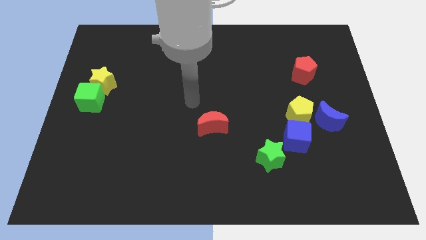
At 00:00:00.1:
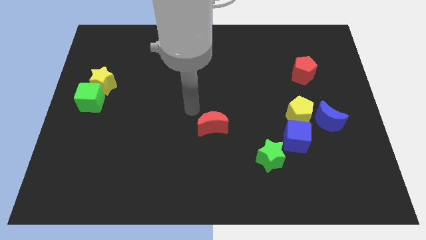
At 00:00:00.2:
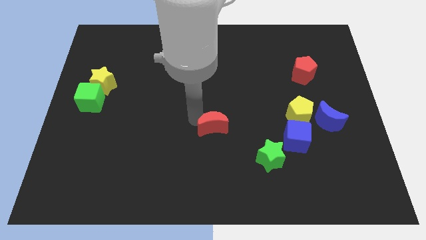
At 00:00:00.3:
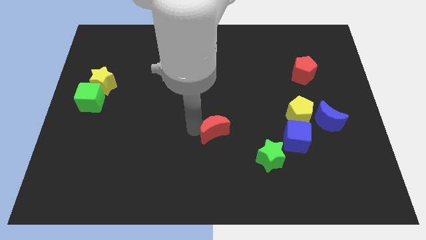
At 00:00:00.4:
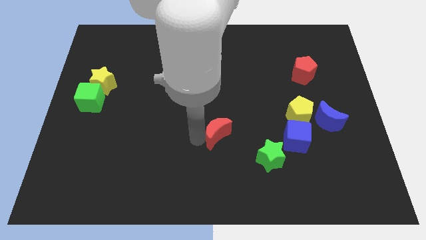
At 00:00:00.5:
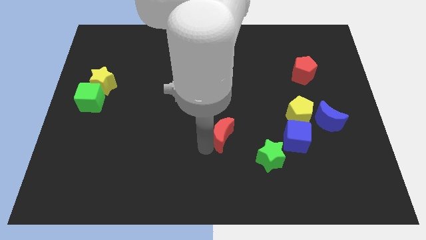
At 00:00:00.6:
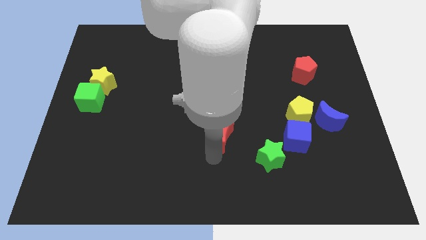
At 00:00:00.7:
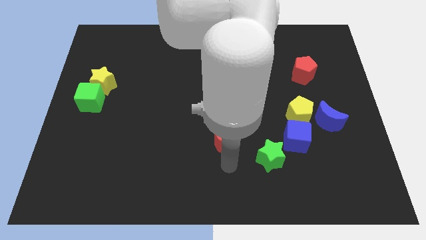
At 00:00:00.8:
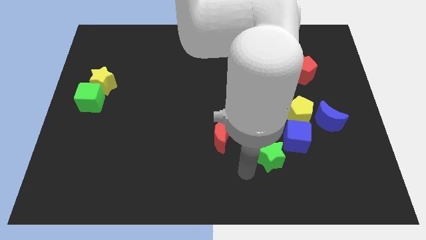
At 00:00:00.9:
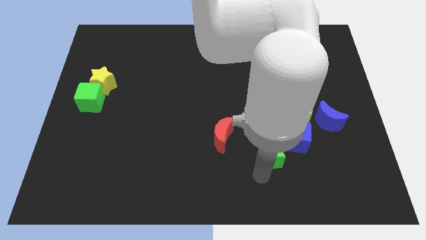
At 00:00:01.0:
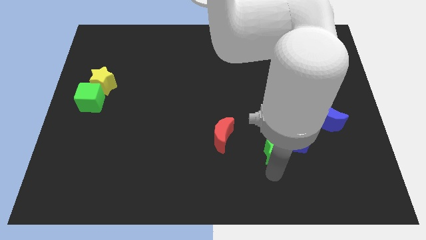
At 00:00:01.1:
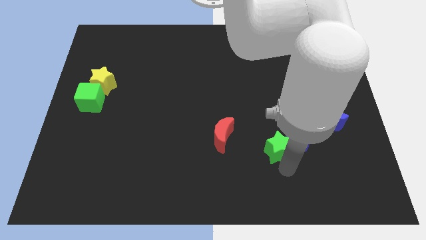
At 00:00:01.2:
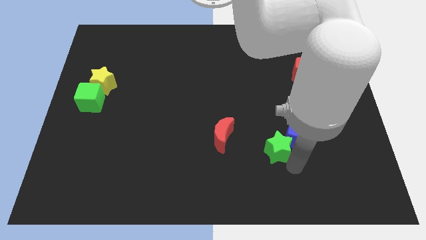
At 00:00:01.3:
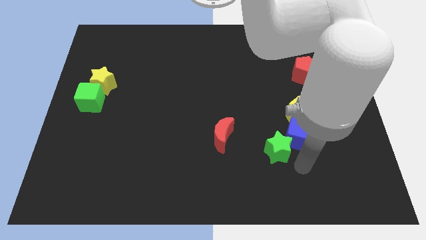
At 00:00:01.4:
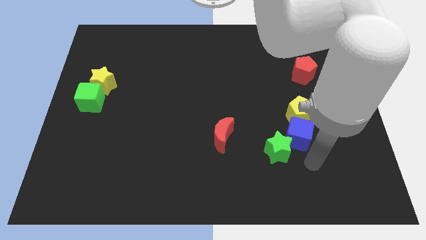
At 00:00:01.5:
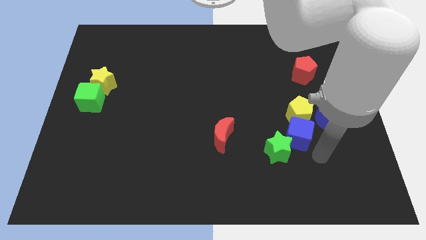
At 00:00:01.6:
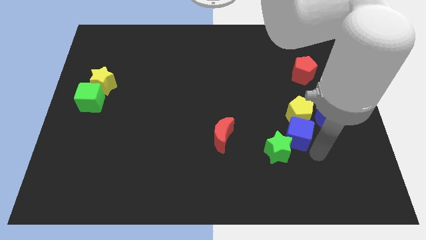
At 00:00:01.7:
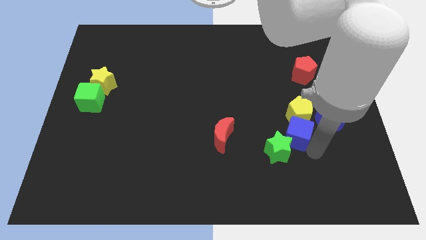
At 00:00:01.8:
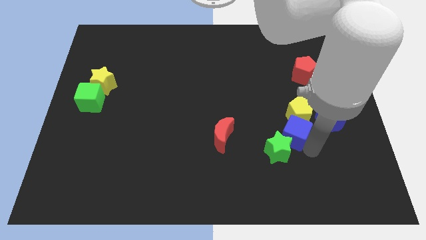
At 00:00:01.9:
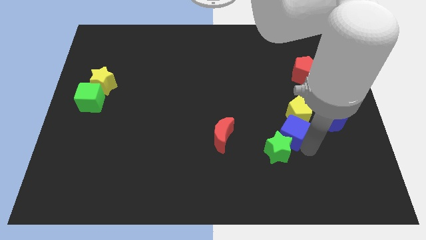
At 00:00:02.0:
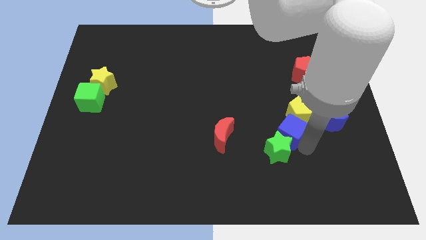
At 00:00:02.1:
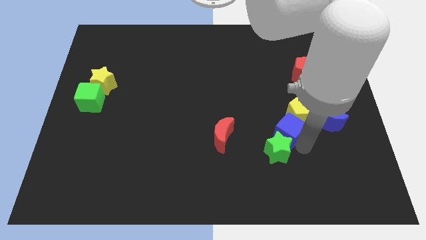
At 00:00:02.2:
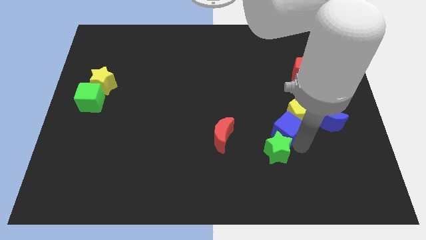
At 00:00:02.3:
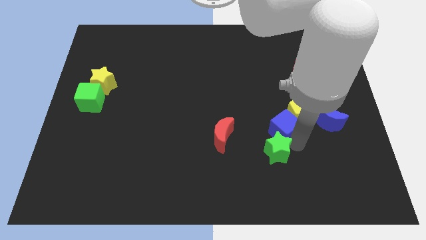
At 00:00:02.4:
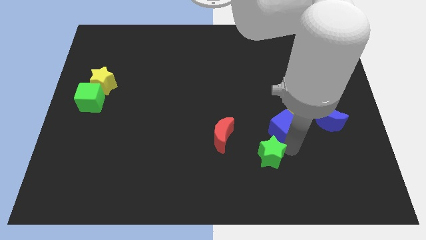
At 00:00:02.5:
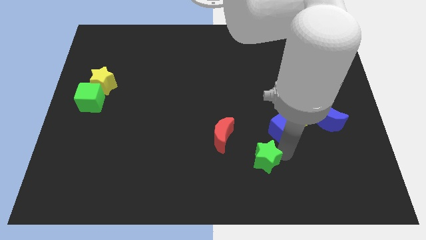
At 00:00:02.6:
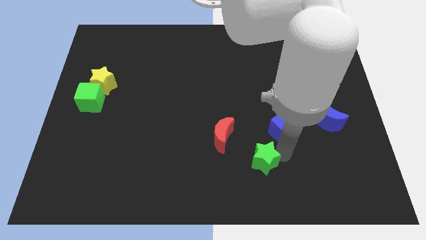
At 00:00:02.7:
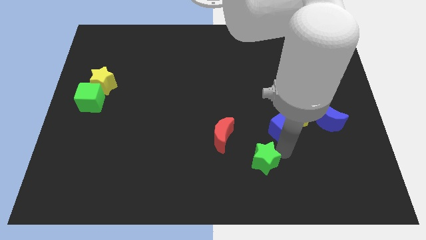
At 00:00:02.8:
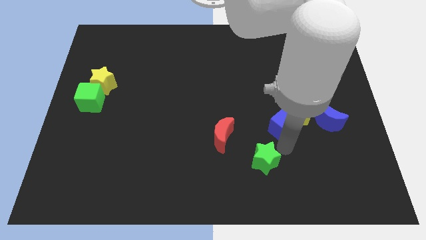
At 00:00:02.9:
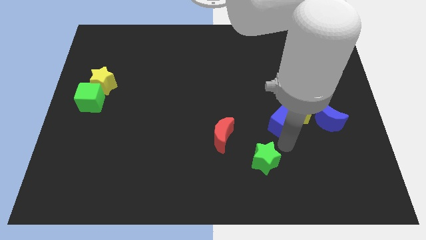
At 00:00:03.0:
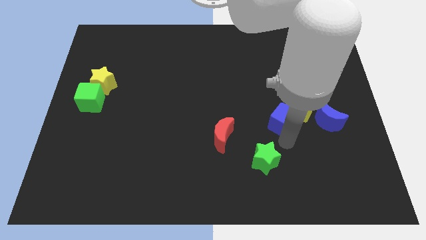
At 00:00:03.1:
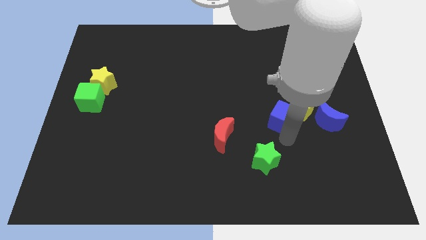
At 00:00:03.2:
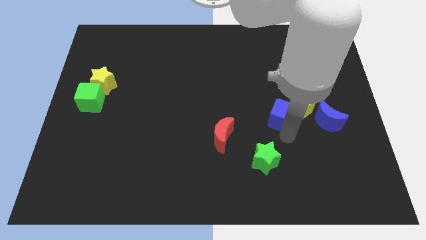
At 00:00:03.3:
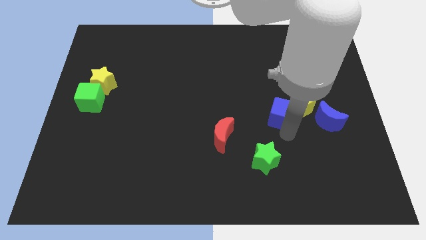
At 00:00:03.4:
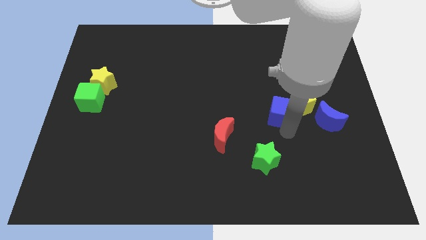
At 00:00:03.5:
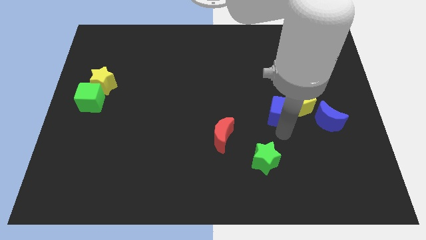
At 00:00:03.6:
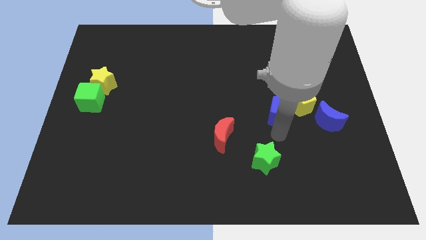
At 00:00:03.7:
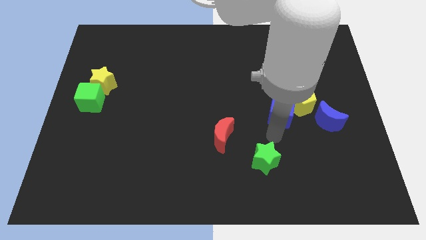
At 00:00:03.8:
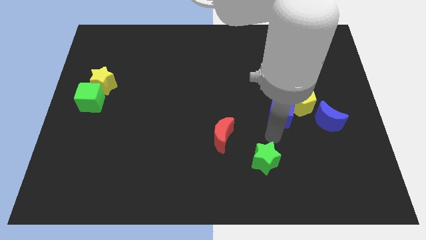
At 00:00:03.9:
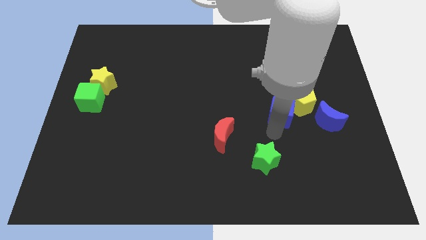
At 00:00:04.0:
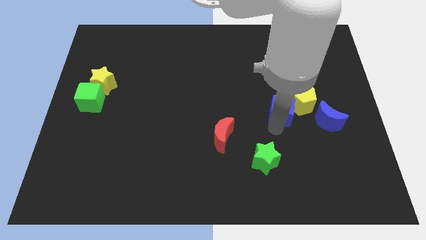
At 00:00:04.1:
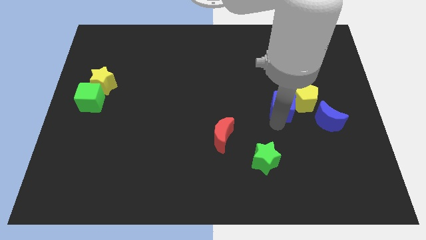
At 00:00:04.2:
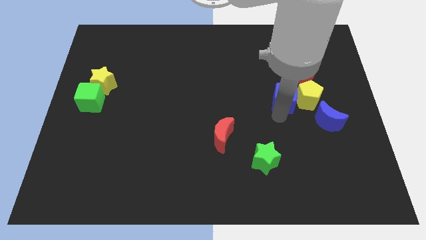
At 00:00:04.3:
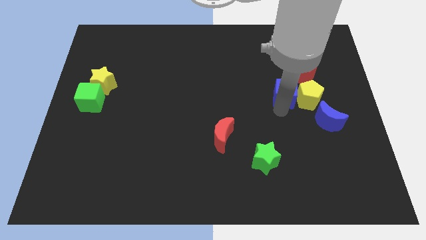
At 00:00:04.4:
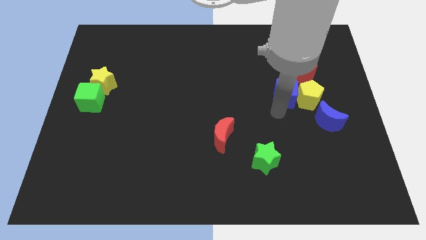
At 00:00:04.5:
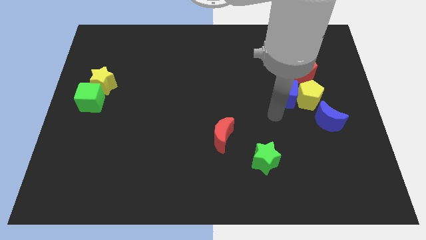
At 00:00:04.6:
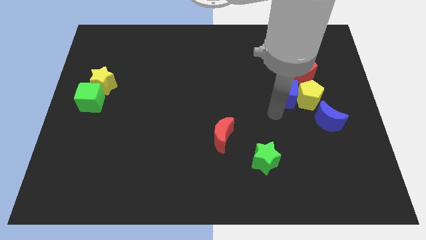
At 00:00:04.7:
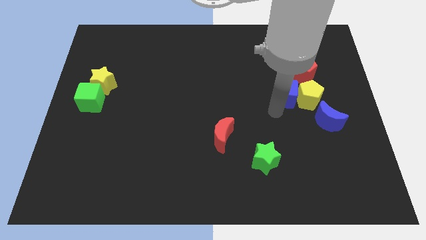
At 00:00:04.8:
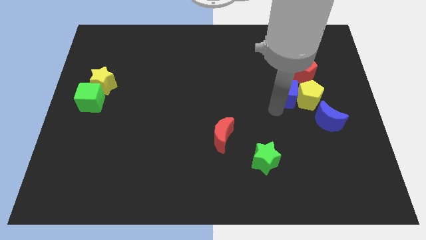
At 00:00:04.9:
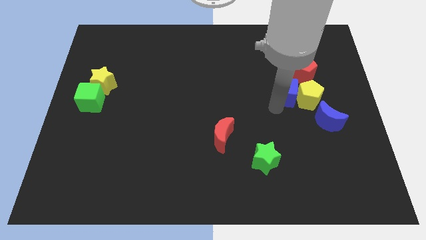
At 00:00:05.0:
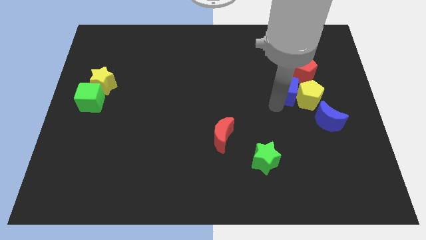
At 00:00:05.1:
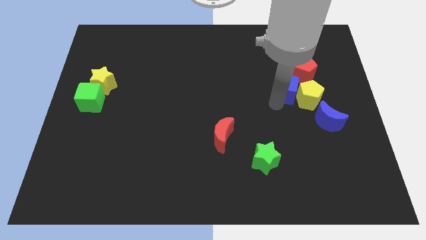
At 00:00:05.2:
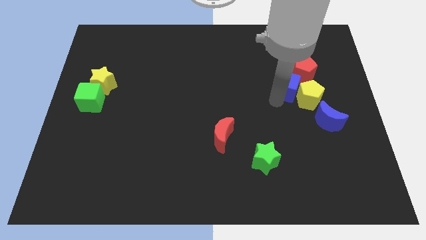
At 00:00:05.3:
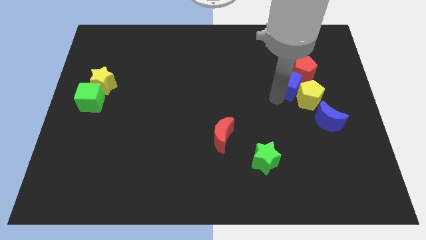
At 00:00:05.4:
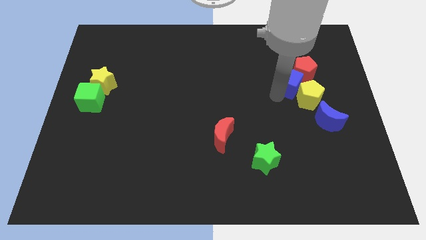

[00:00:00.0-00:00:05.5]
put the blue cube next to the red pentagon

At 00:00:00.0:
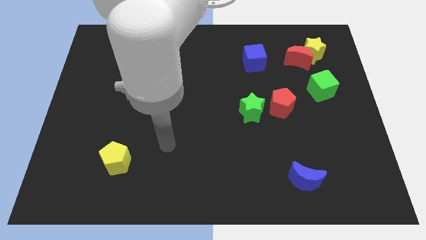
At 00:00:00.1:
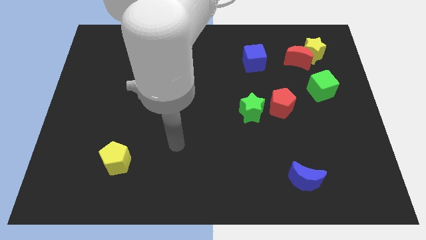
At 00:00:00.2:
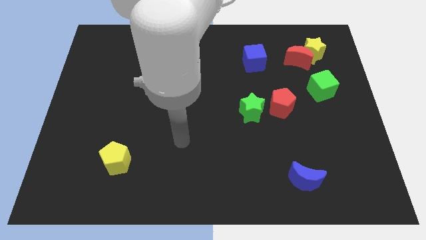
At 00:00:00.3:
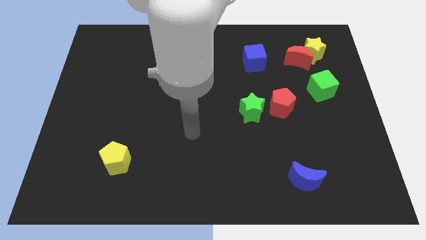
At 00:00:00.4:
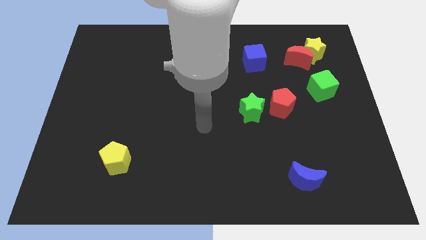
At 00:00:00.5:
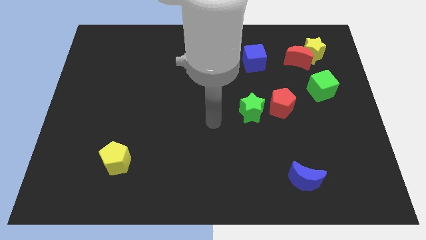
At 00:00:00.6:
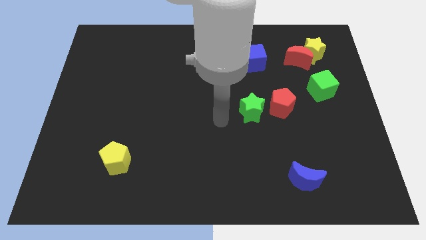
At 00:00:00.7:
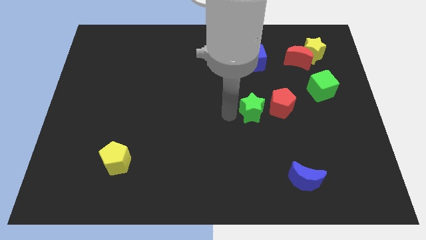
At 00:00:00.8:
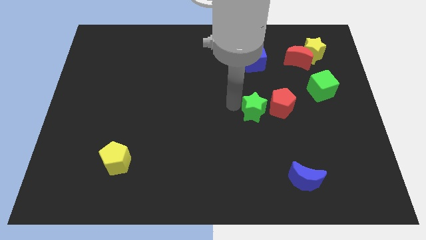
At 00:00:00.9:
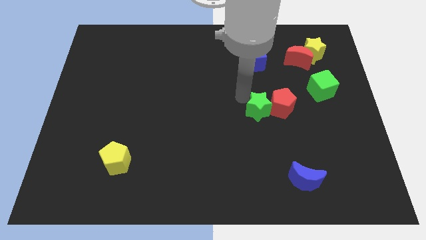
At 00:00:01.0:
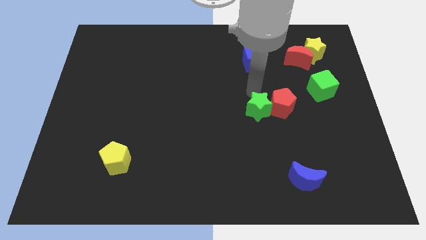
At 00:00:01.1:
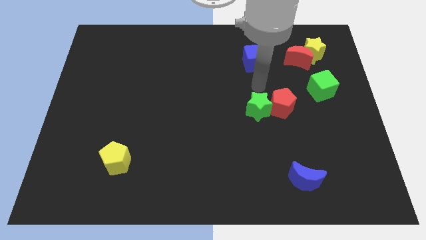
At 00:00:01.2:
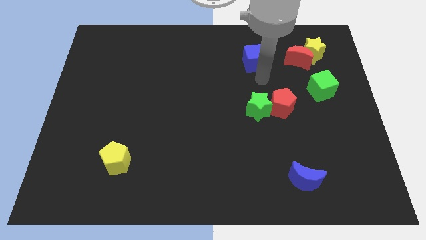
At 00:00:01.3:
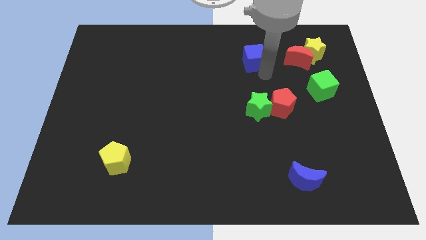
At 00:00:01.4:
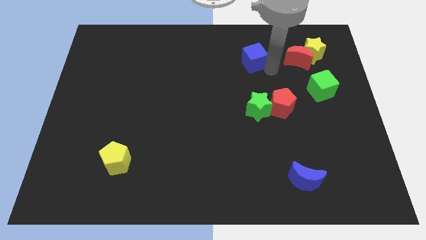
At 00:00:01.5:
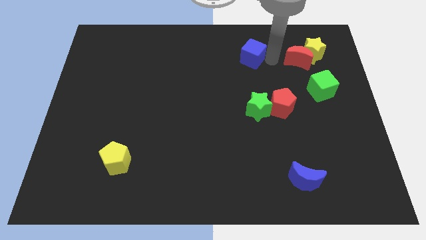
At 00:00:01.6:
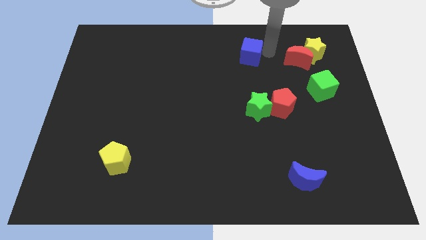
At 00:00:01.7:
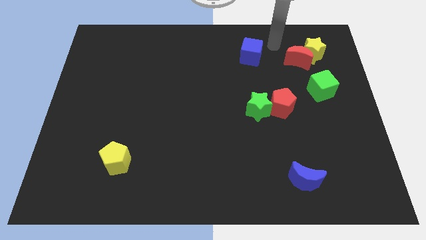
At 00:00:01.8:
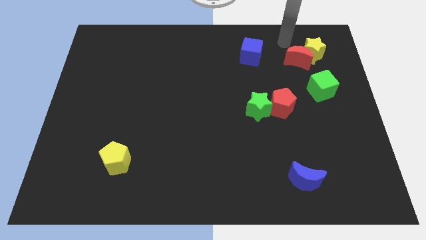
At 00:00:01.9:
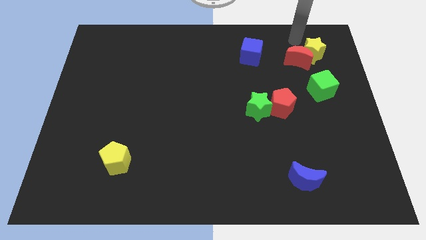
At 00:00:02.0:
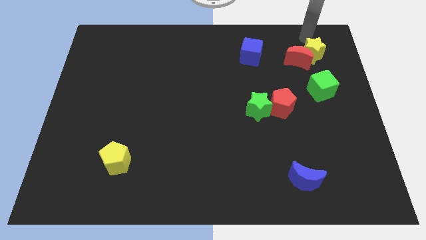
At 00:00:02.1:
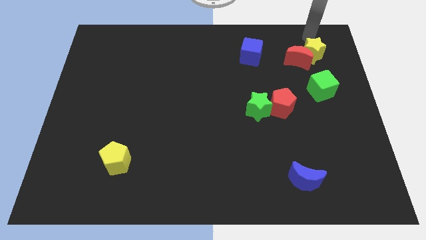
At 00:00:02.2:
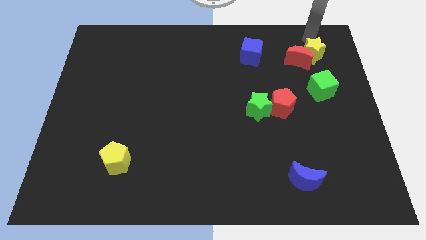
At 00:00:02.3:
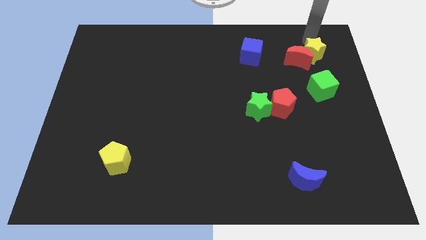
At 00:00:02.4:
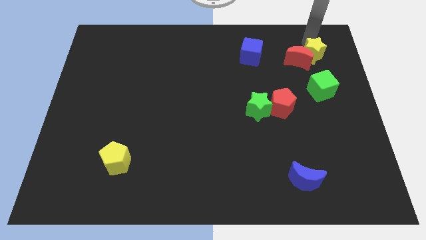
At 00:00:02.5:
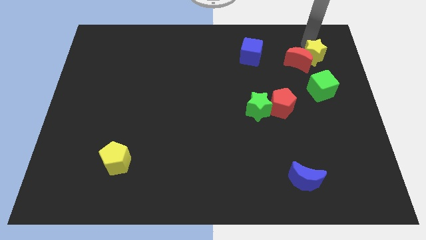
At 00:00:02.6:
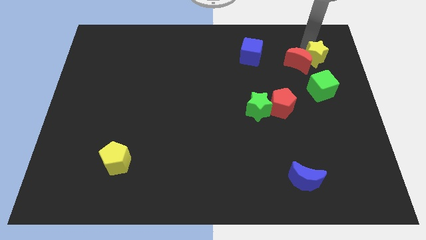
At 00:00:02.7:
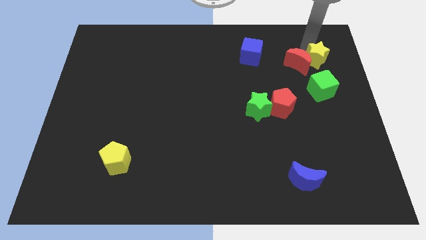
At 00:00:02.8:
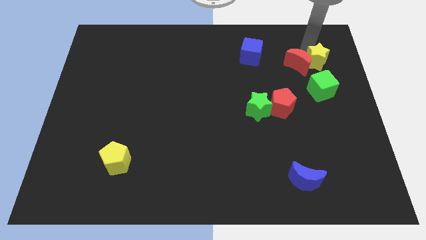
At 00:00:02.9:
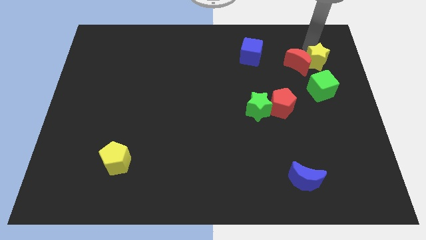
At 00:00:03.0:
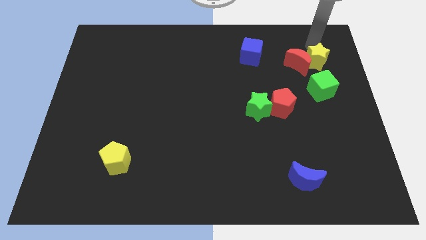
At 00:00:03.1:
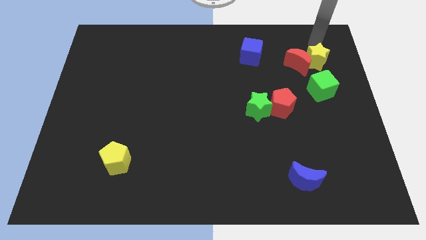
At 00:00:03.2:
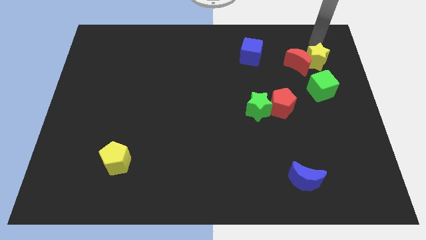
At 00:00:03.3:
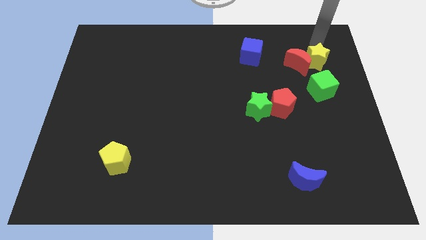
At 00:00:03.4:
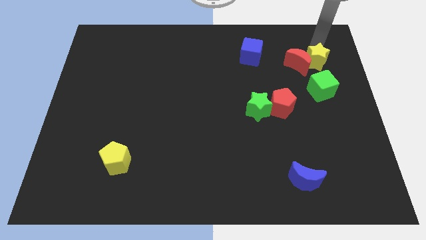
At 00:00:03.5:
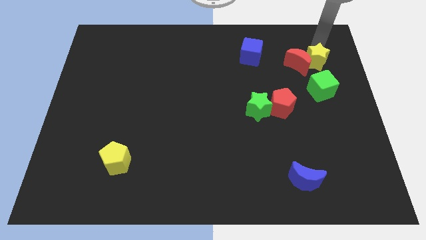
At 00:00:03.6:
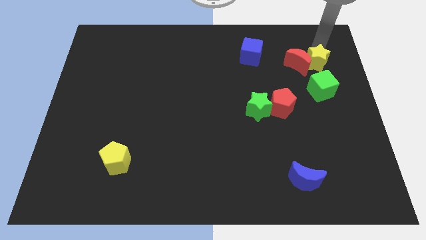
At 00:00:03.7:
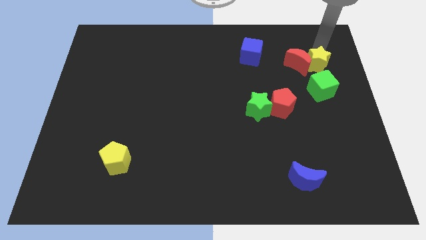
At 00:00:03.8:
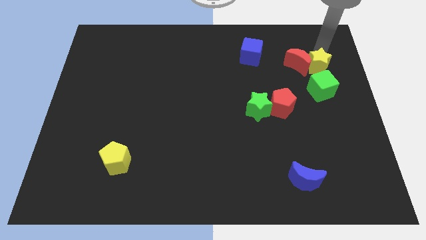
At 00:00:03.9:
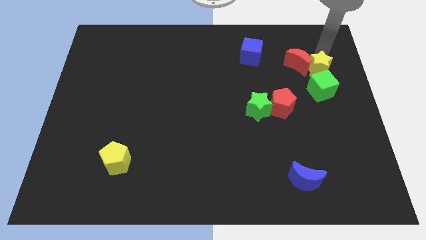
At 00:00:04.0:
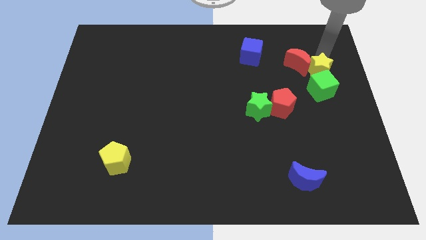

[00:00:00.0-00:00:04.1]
push the yellow star towards the green cube
